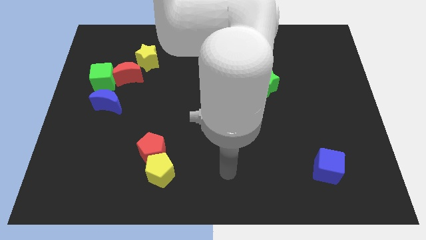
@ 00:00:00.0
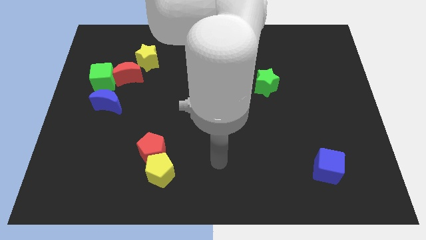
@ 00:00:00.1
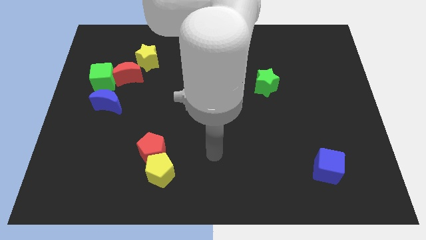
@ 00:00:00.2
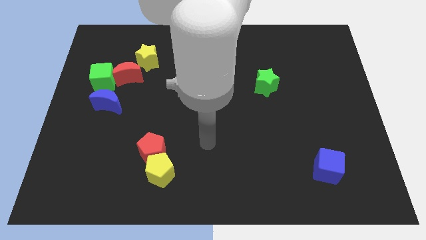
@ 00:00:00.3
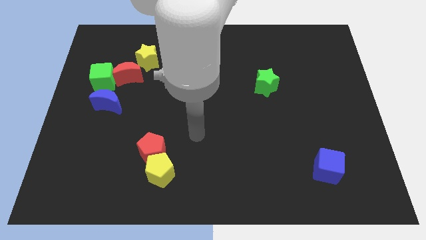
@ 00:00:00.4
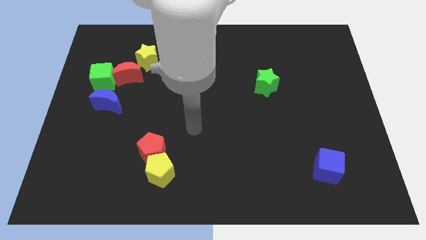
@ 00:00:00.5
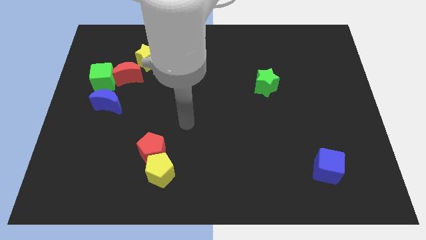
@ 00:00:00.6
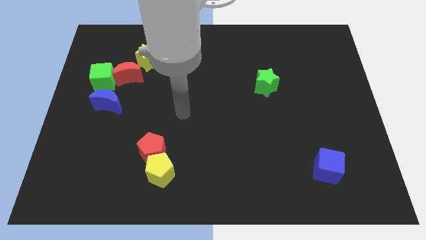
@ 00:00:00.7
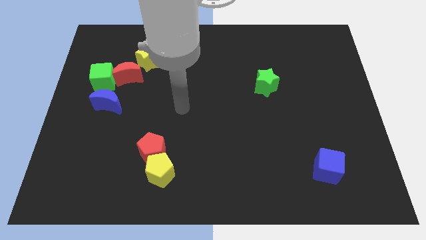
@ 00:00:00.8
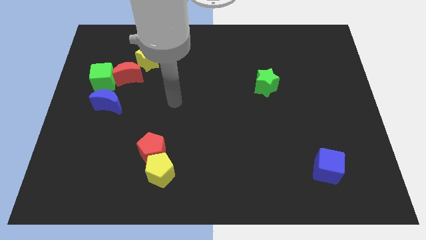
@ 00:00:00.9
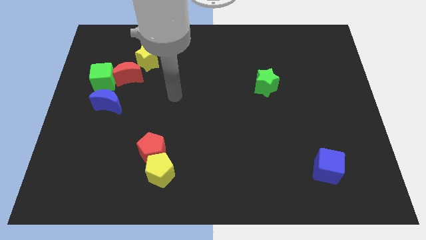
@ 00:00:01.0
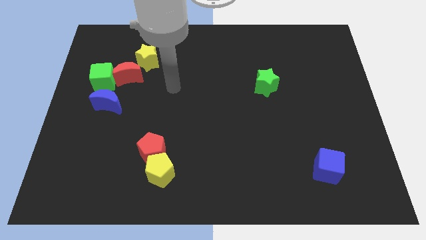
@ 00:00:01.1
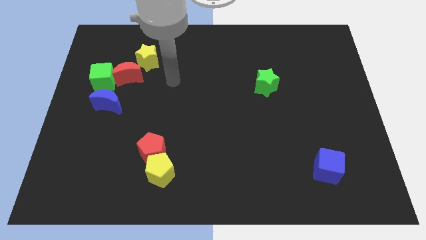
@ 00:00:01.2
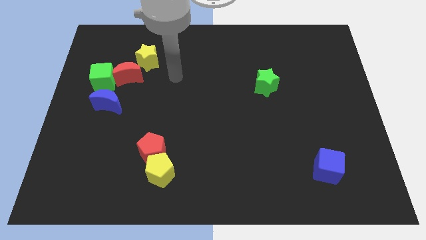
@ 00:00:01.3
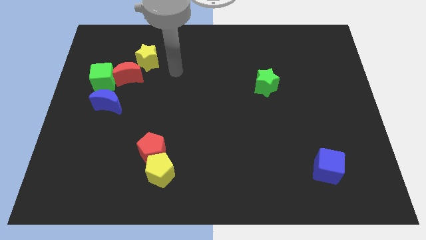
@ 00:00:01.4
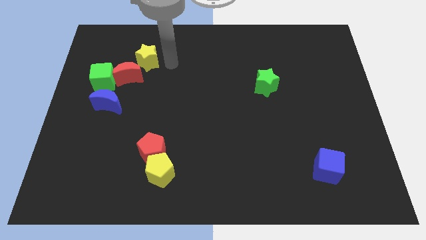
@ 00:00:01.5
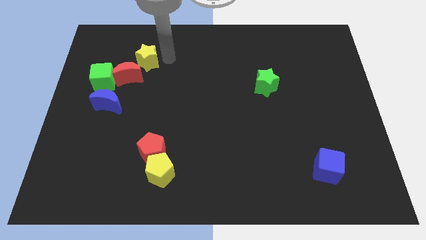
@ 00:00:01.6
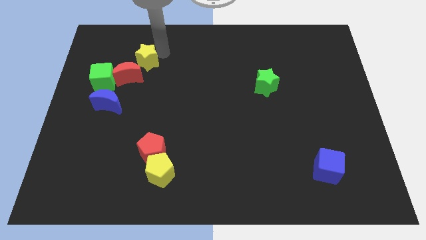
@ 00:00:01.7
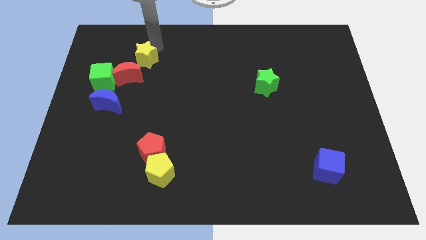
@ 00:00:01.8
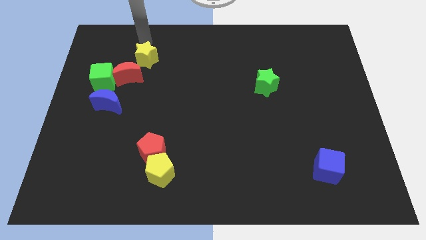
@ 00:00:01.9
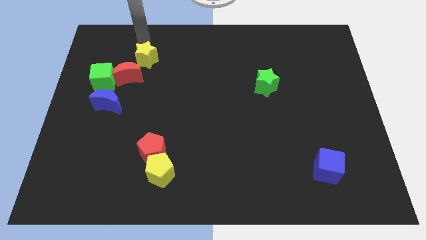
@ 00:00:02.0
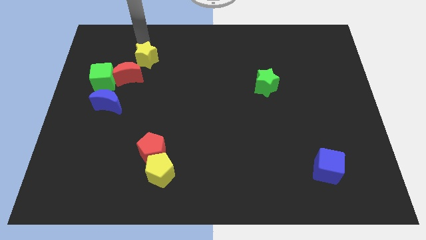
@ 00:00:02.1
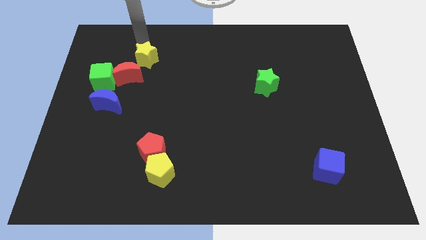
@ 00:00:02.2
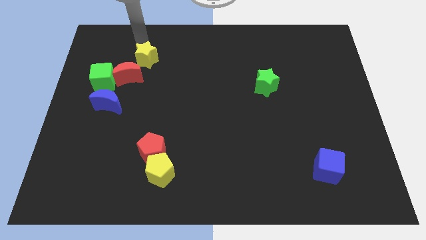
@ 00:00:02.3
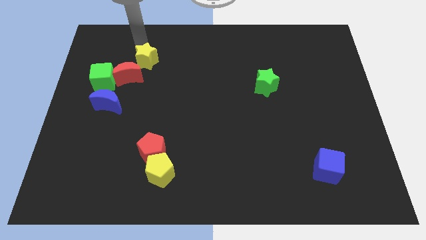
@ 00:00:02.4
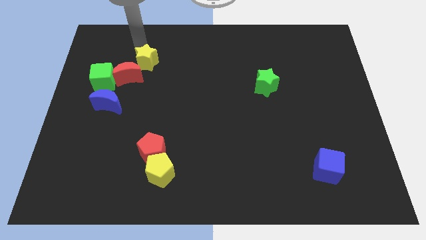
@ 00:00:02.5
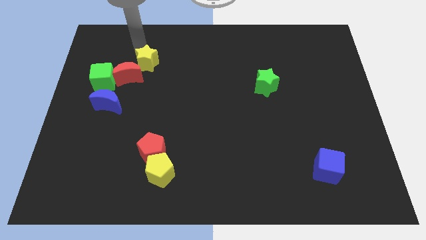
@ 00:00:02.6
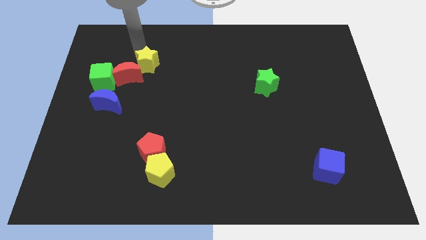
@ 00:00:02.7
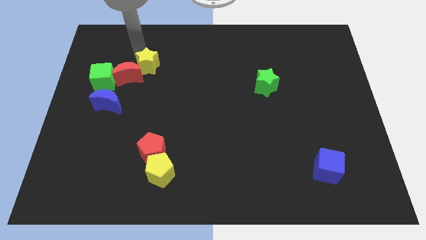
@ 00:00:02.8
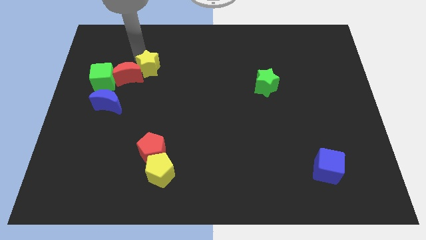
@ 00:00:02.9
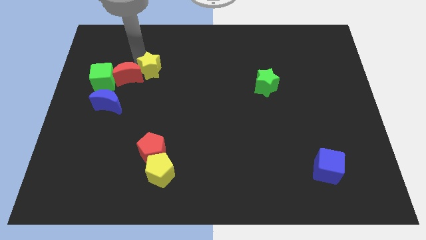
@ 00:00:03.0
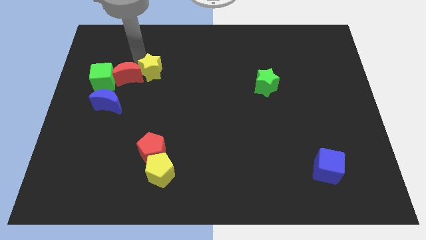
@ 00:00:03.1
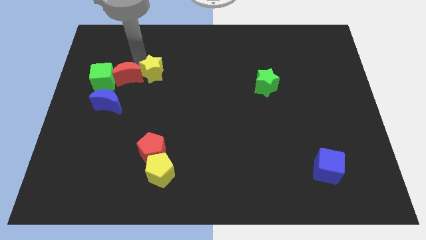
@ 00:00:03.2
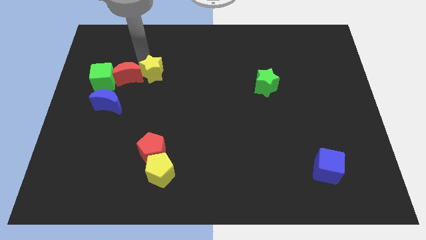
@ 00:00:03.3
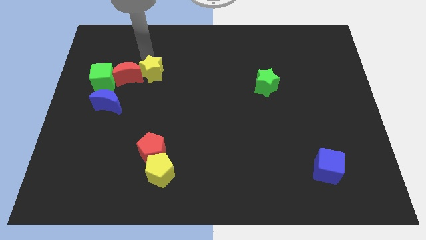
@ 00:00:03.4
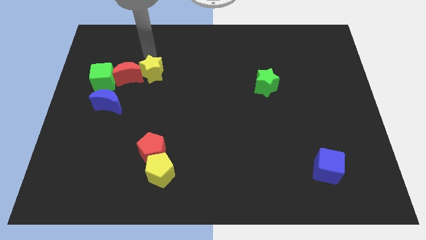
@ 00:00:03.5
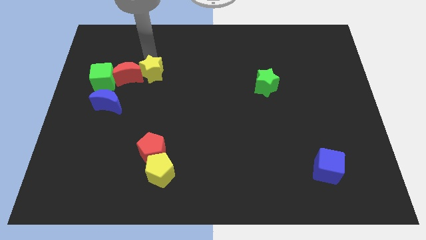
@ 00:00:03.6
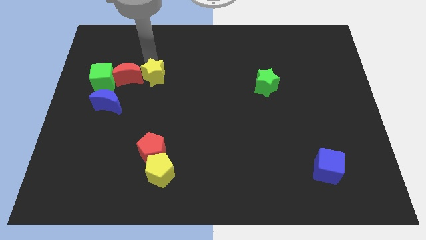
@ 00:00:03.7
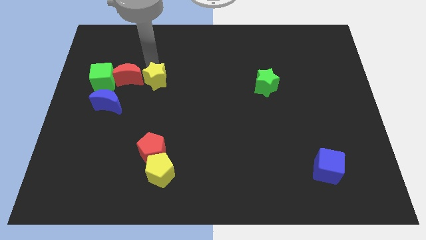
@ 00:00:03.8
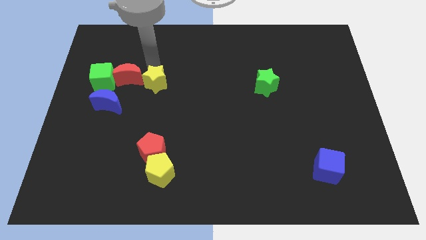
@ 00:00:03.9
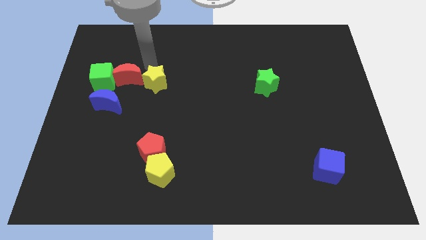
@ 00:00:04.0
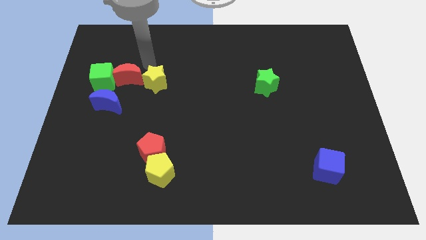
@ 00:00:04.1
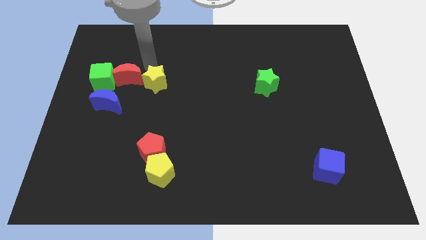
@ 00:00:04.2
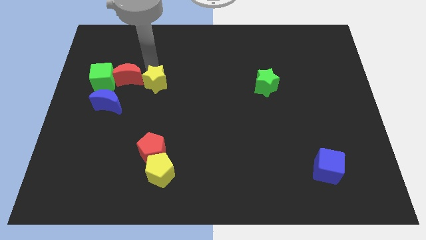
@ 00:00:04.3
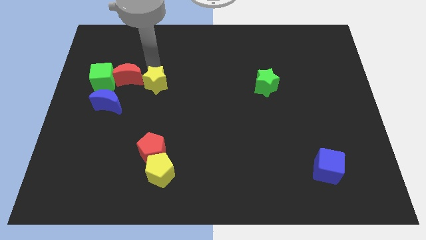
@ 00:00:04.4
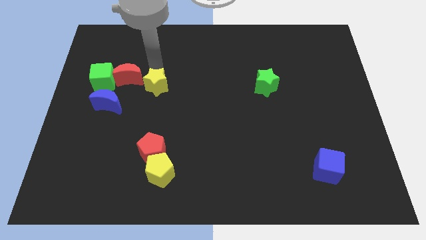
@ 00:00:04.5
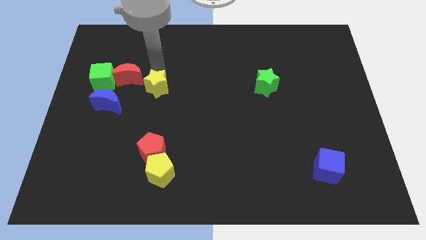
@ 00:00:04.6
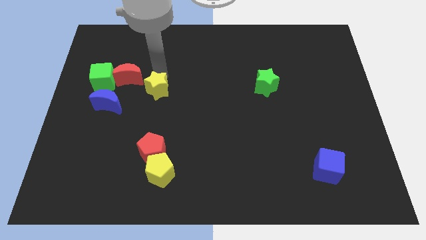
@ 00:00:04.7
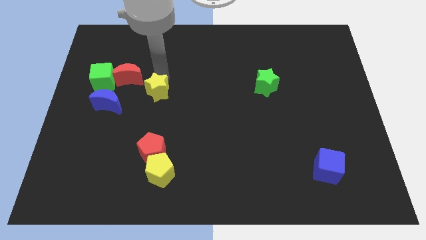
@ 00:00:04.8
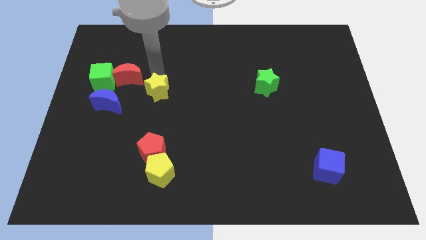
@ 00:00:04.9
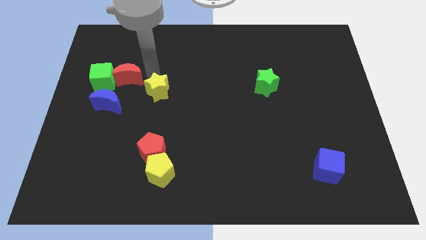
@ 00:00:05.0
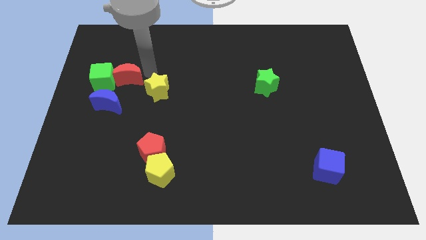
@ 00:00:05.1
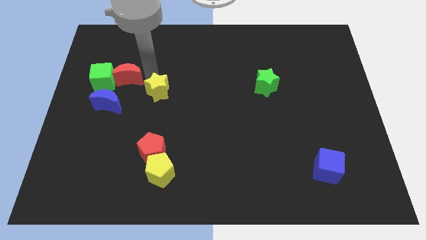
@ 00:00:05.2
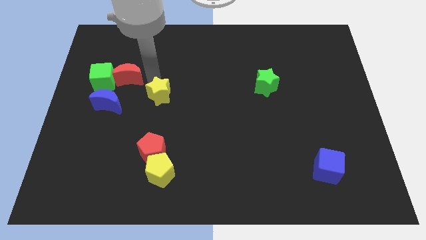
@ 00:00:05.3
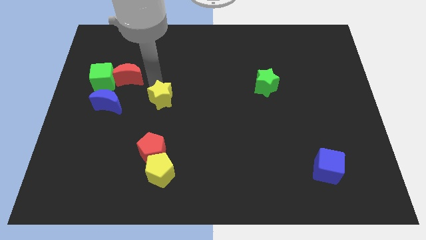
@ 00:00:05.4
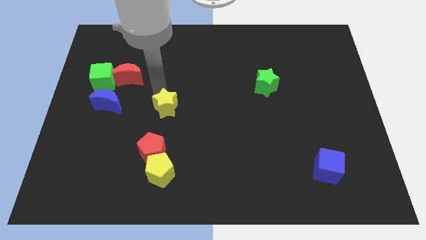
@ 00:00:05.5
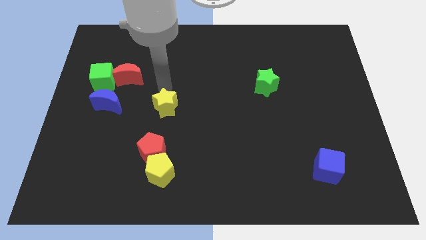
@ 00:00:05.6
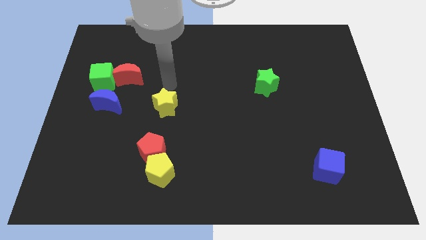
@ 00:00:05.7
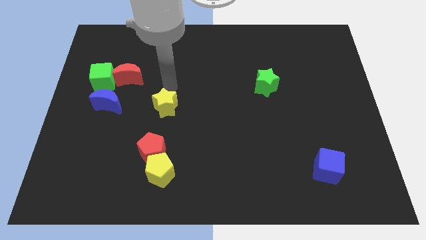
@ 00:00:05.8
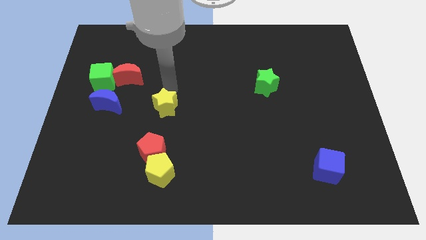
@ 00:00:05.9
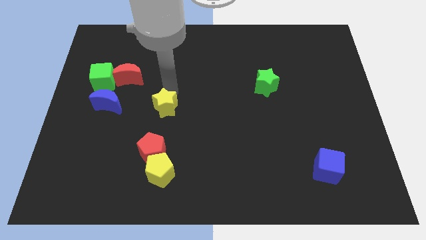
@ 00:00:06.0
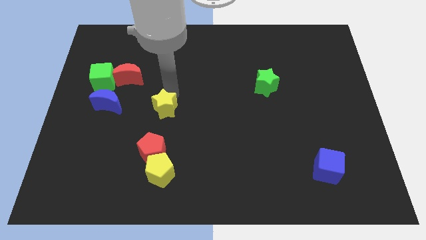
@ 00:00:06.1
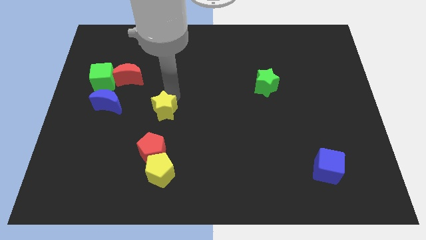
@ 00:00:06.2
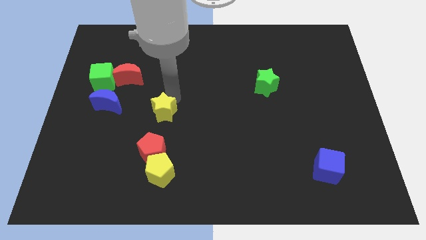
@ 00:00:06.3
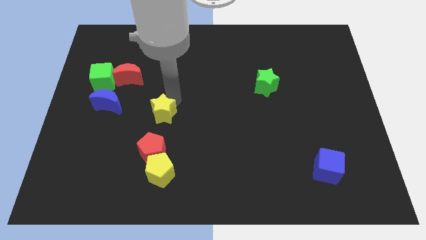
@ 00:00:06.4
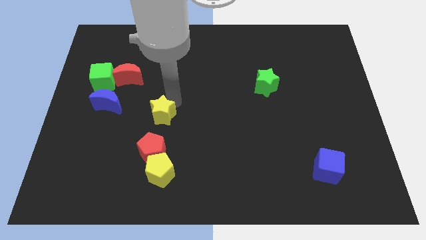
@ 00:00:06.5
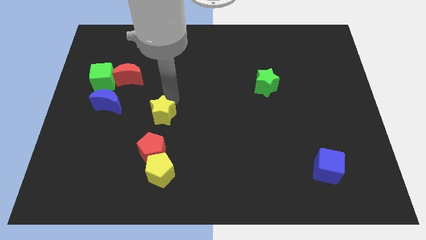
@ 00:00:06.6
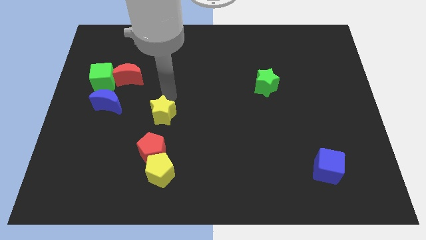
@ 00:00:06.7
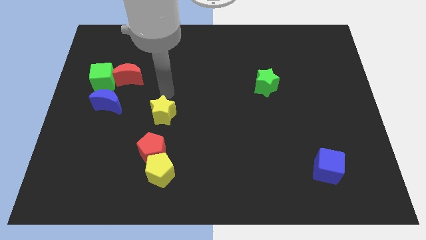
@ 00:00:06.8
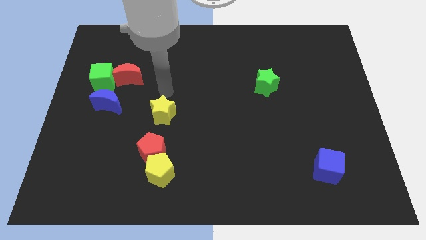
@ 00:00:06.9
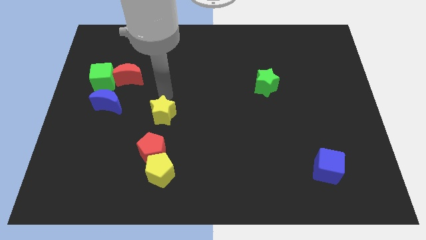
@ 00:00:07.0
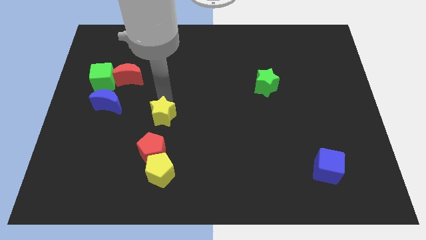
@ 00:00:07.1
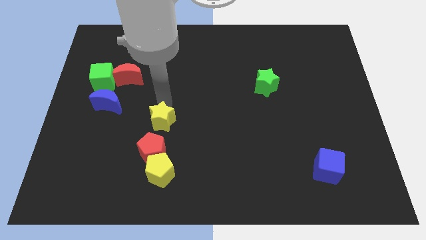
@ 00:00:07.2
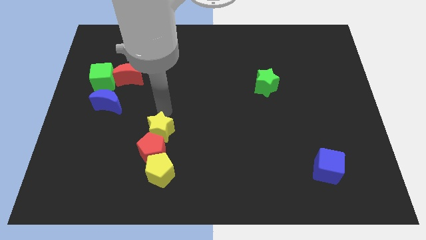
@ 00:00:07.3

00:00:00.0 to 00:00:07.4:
slide the yellow star towards the red pentagon
